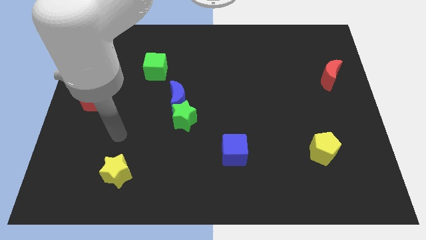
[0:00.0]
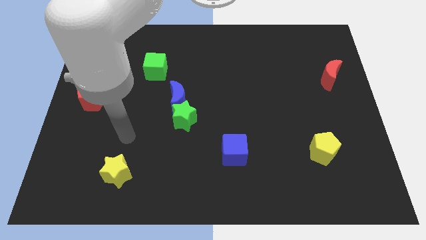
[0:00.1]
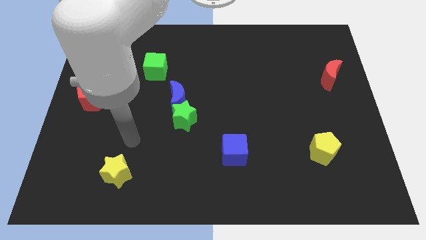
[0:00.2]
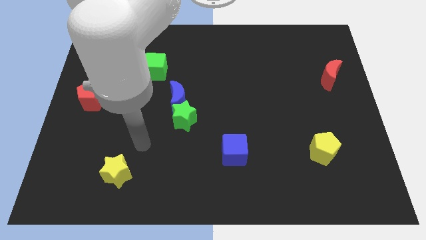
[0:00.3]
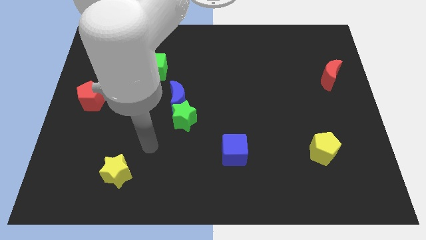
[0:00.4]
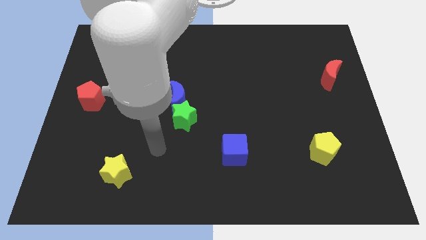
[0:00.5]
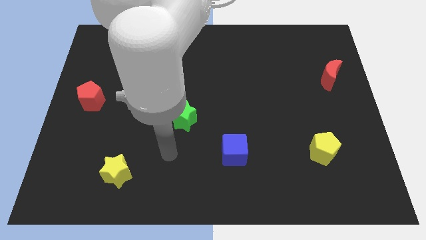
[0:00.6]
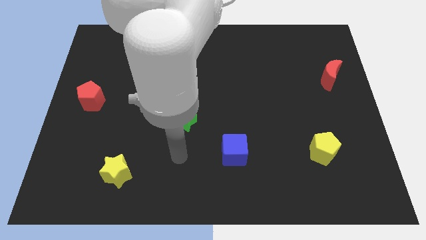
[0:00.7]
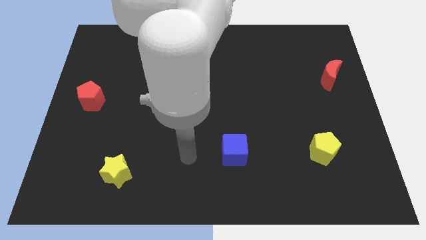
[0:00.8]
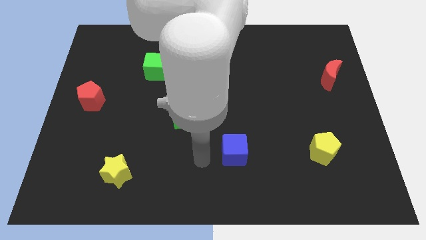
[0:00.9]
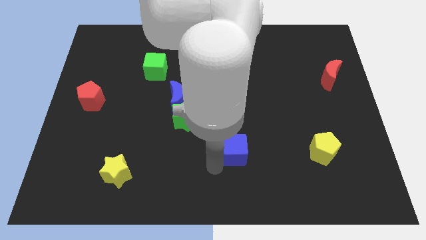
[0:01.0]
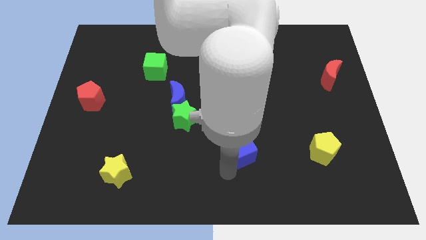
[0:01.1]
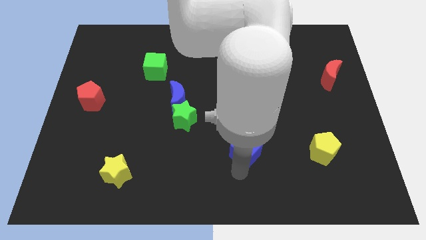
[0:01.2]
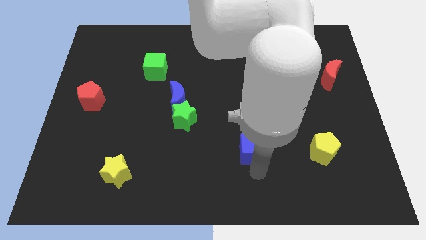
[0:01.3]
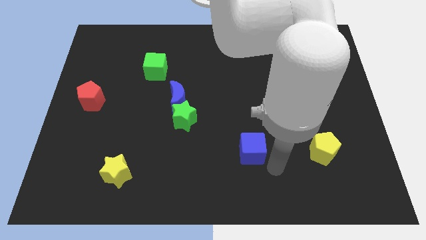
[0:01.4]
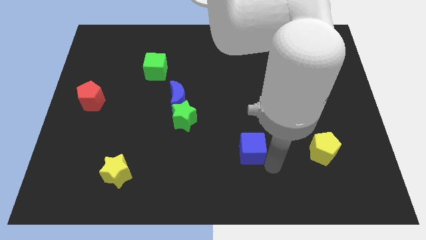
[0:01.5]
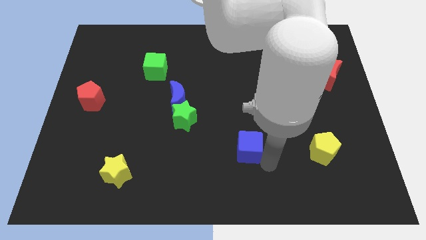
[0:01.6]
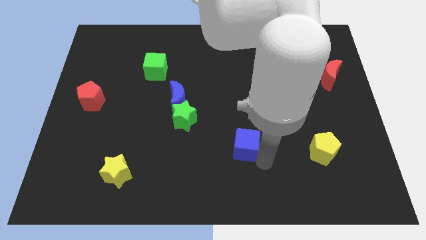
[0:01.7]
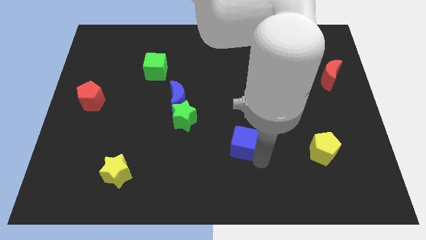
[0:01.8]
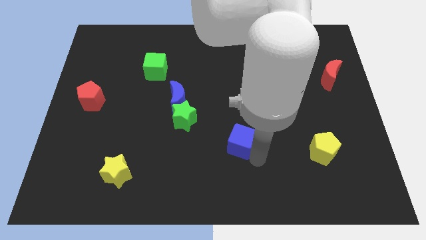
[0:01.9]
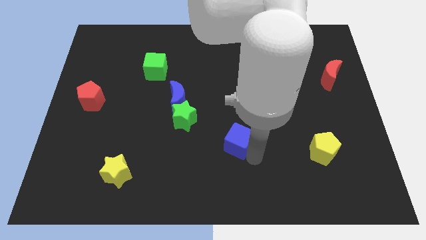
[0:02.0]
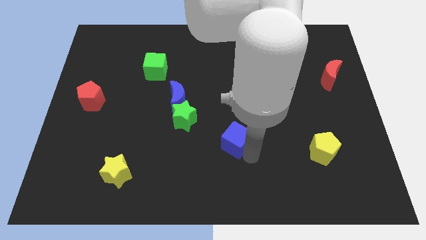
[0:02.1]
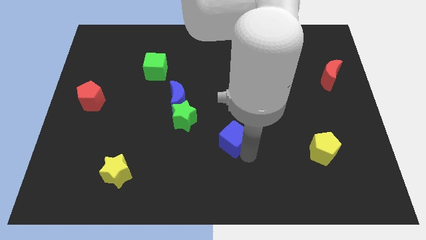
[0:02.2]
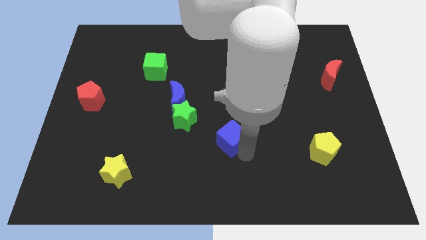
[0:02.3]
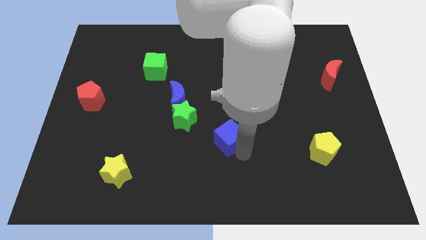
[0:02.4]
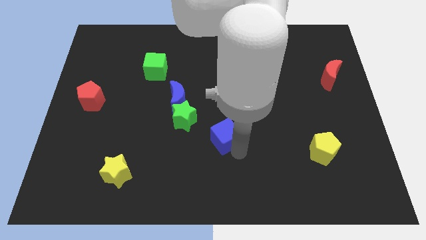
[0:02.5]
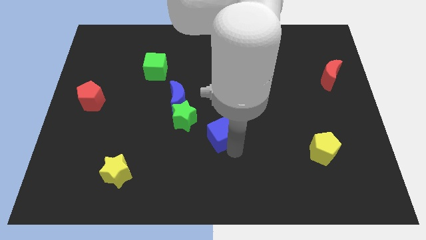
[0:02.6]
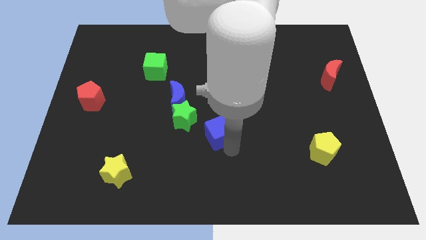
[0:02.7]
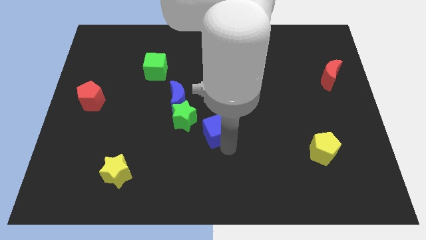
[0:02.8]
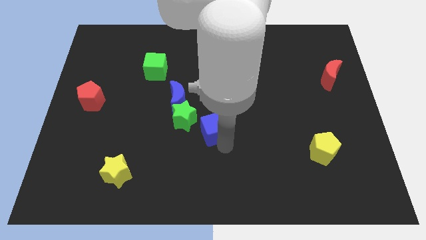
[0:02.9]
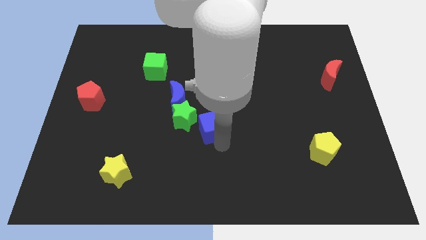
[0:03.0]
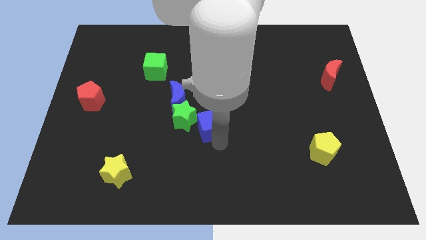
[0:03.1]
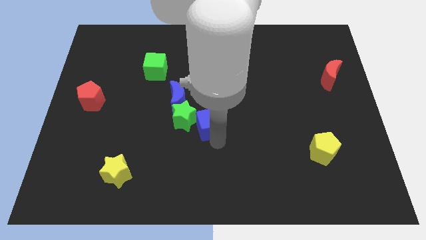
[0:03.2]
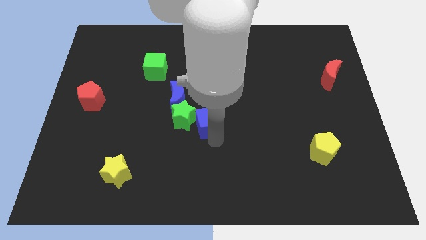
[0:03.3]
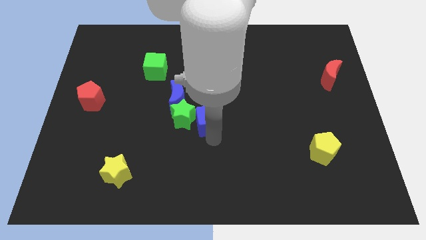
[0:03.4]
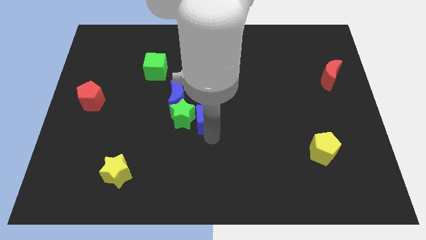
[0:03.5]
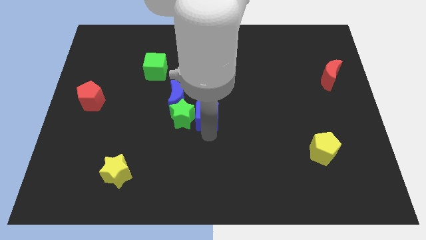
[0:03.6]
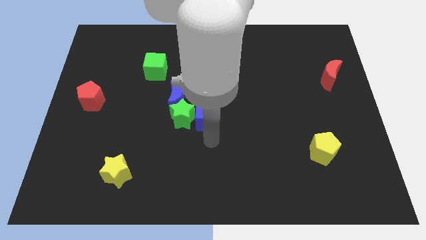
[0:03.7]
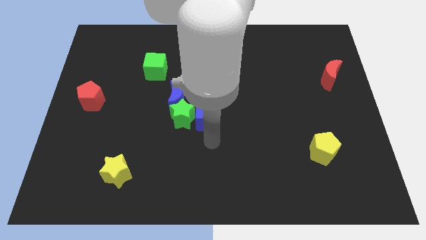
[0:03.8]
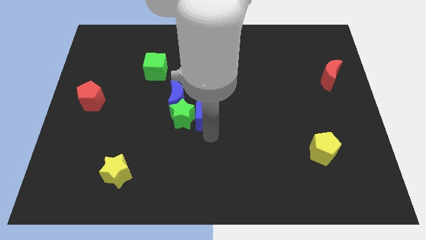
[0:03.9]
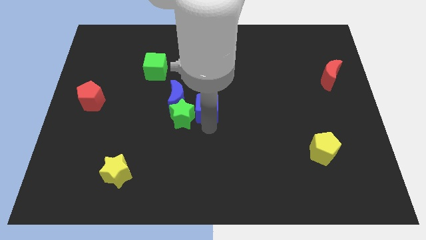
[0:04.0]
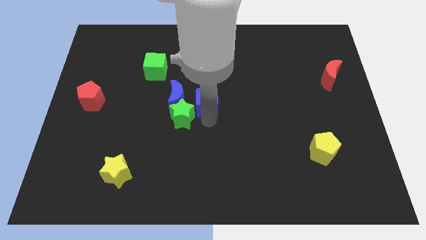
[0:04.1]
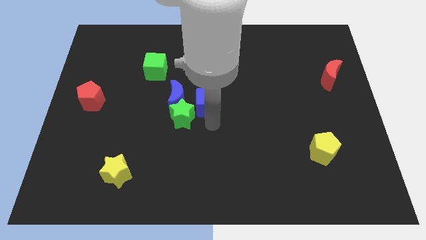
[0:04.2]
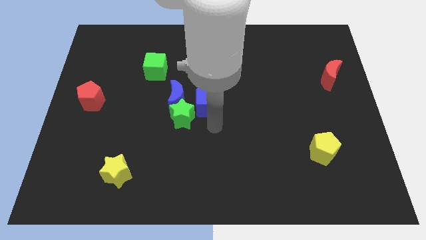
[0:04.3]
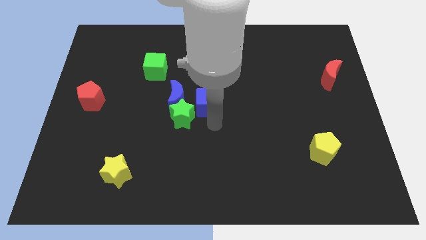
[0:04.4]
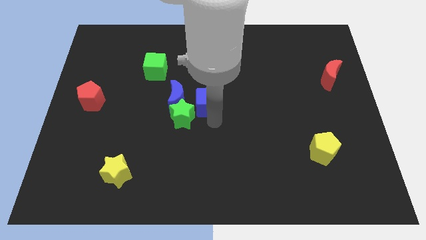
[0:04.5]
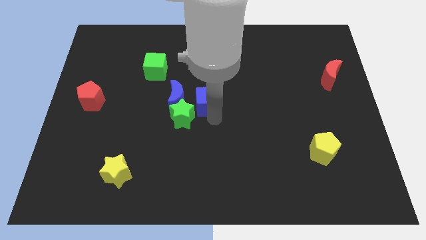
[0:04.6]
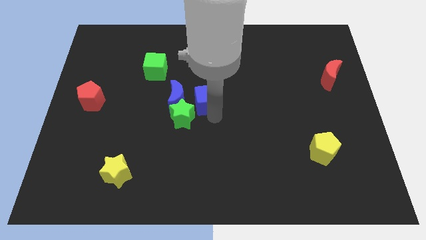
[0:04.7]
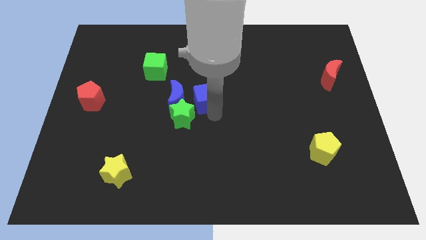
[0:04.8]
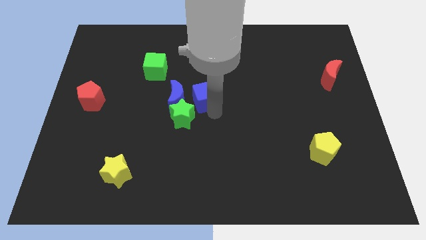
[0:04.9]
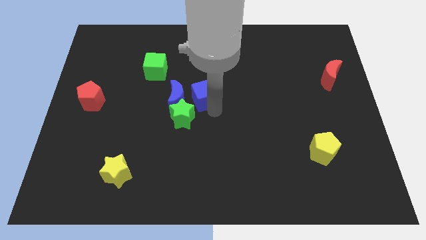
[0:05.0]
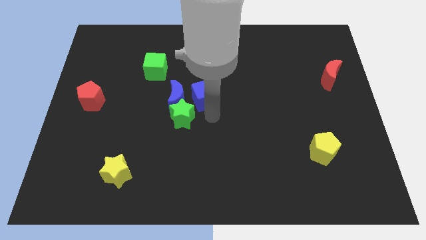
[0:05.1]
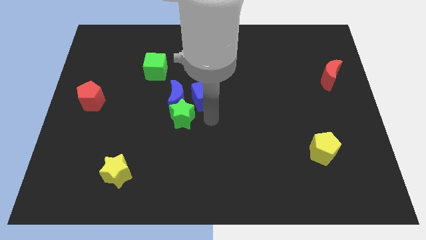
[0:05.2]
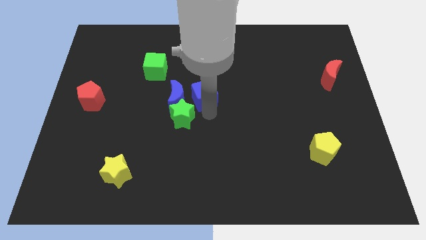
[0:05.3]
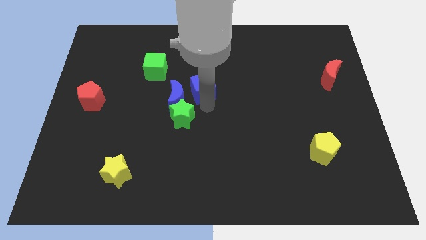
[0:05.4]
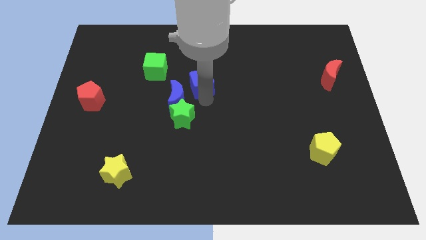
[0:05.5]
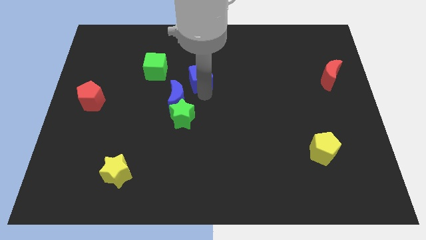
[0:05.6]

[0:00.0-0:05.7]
move the blue cube to the right of the green cube

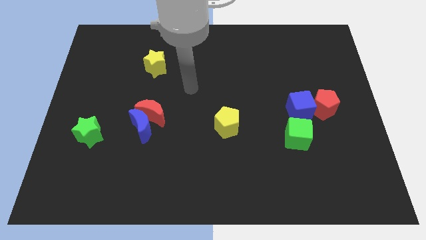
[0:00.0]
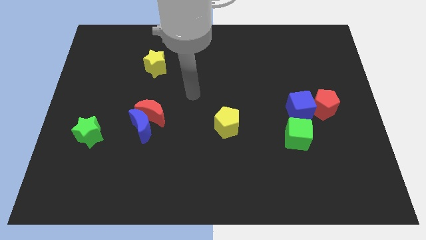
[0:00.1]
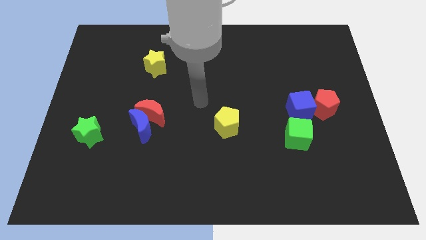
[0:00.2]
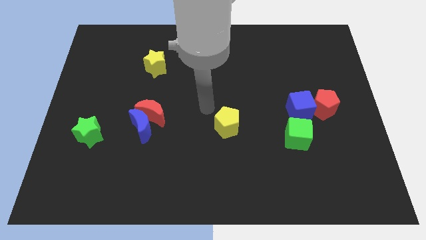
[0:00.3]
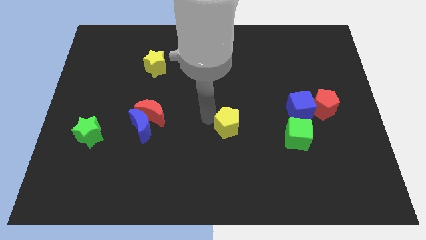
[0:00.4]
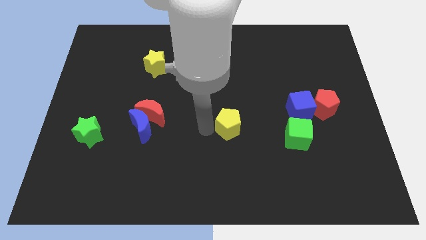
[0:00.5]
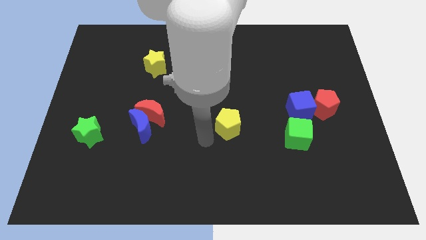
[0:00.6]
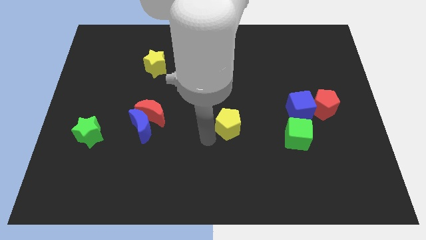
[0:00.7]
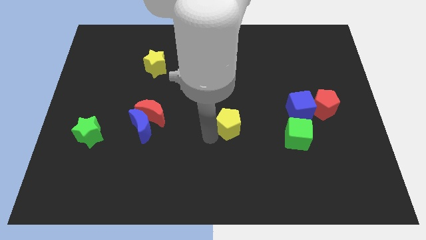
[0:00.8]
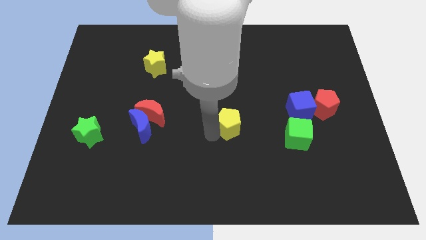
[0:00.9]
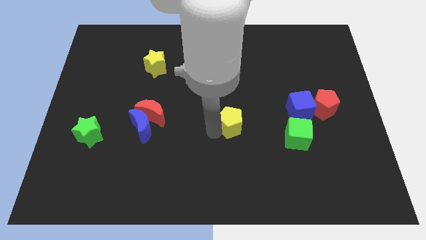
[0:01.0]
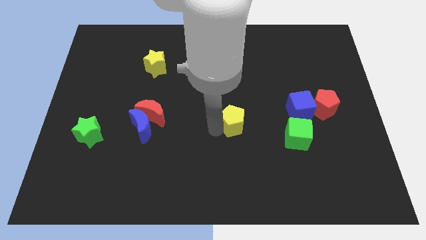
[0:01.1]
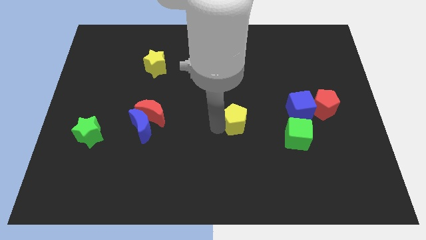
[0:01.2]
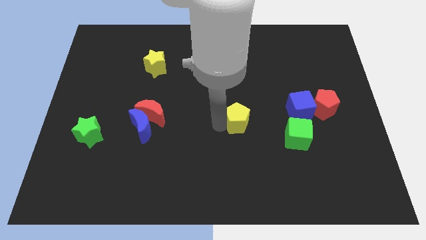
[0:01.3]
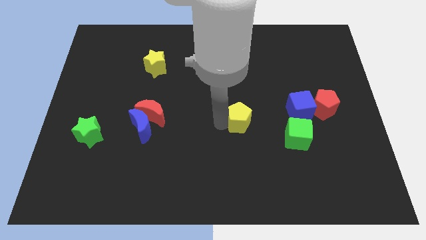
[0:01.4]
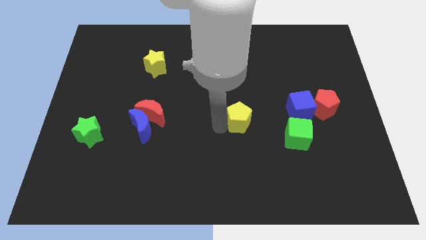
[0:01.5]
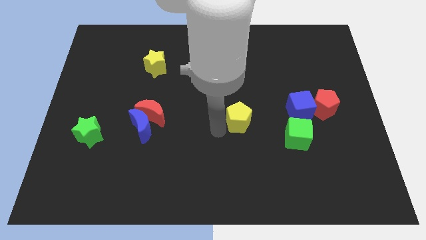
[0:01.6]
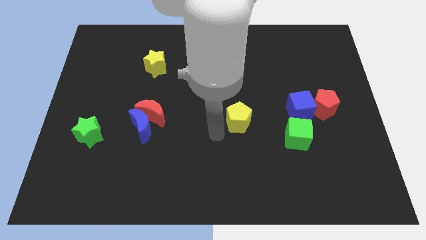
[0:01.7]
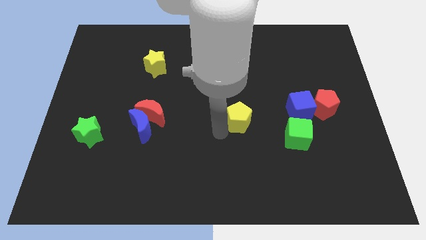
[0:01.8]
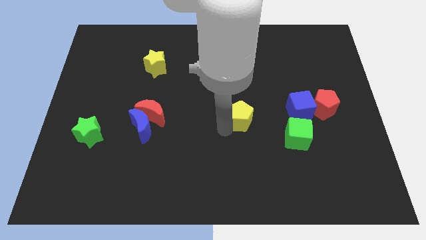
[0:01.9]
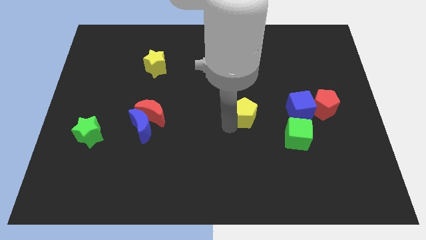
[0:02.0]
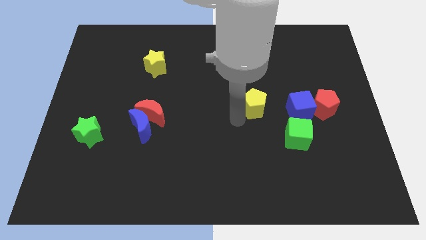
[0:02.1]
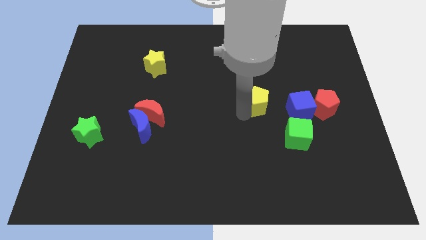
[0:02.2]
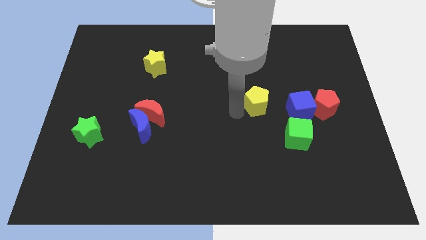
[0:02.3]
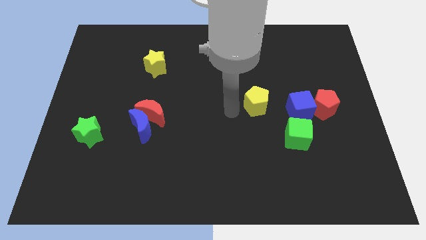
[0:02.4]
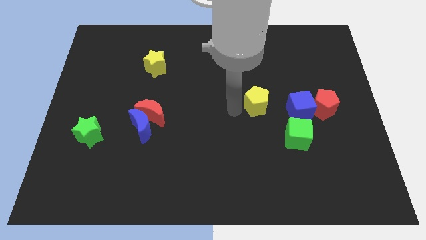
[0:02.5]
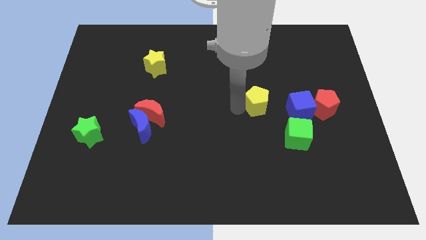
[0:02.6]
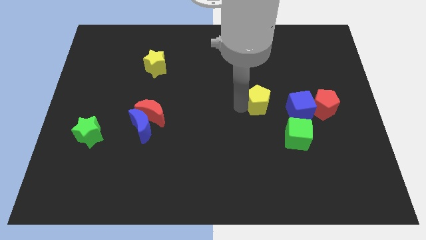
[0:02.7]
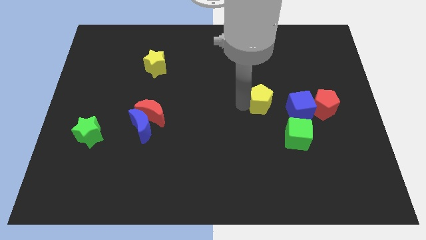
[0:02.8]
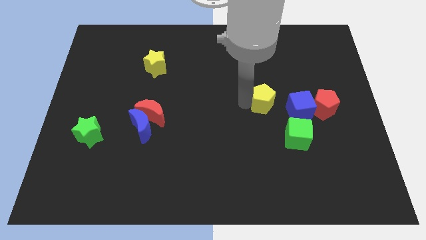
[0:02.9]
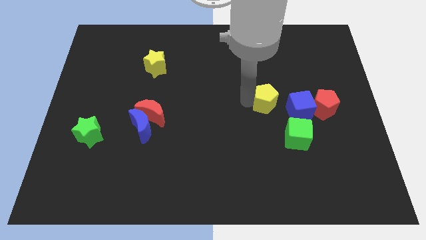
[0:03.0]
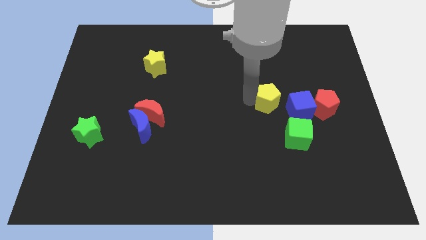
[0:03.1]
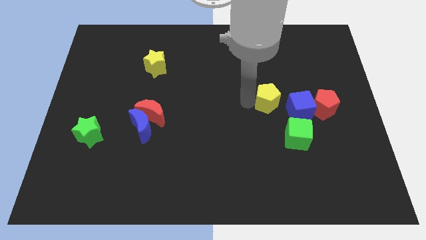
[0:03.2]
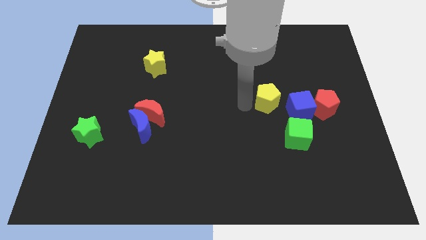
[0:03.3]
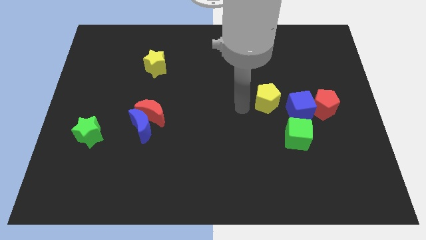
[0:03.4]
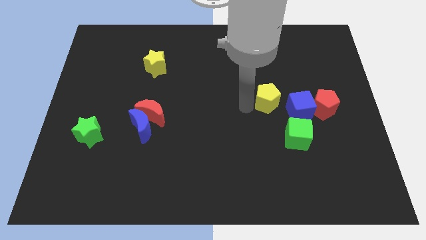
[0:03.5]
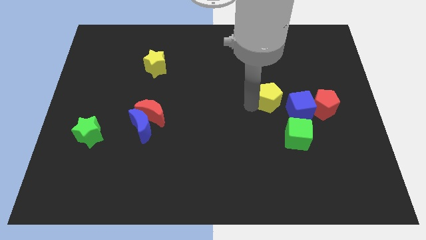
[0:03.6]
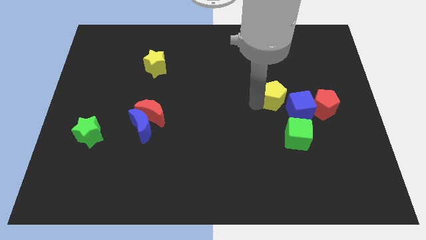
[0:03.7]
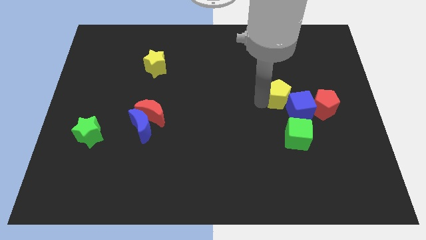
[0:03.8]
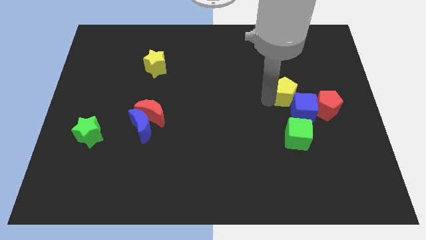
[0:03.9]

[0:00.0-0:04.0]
put the yellow pentagon to the top left side of the red pentagon
